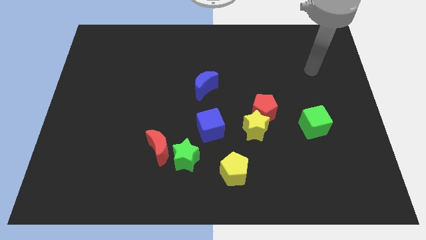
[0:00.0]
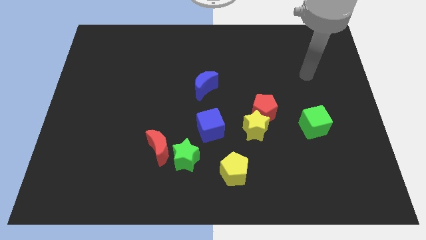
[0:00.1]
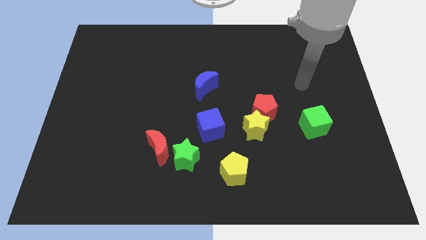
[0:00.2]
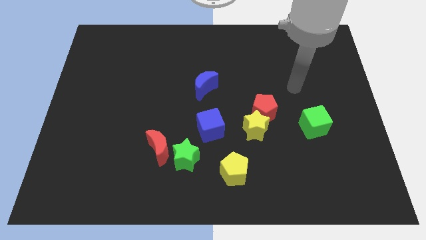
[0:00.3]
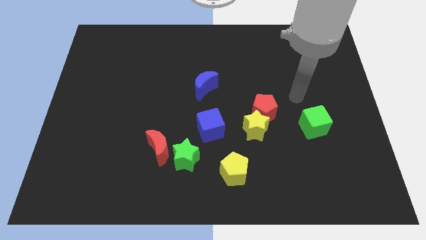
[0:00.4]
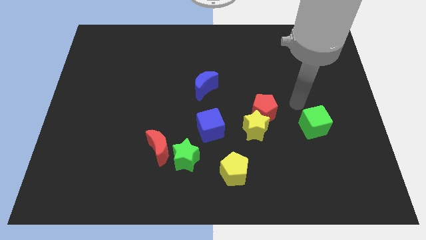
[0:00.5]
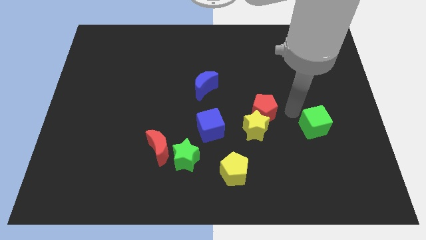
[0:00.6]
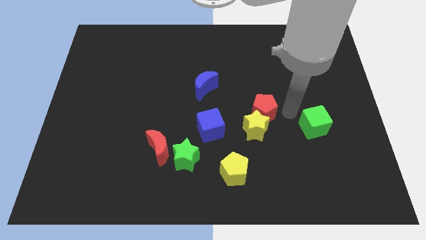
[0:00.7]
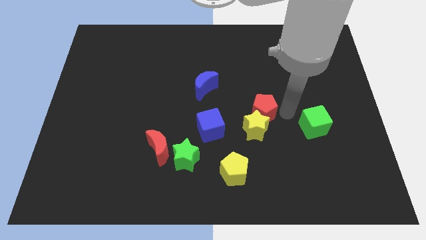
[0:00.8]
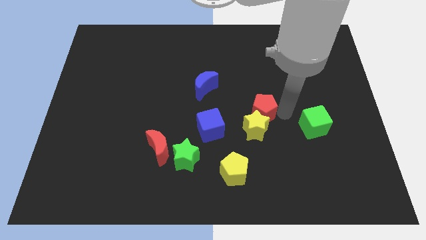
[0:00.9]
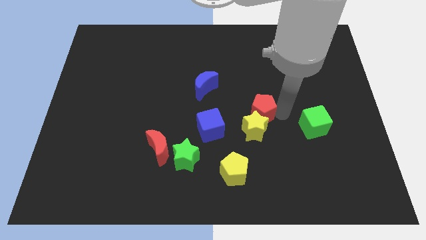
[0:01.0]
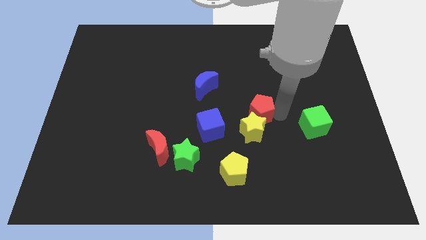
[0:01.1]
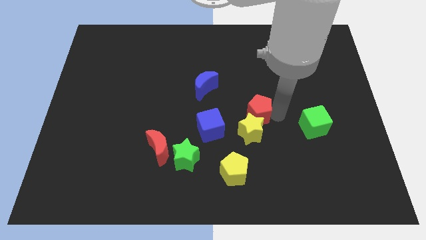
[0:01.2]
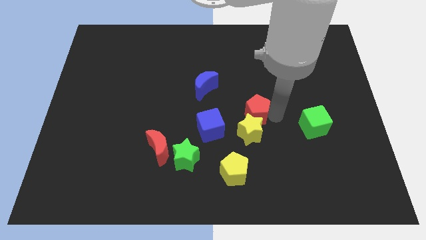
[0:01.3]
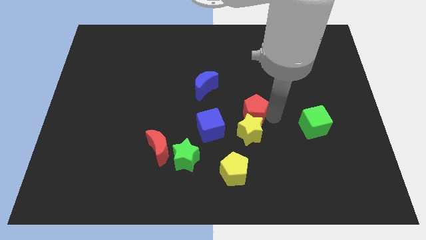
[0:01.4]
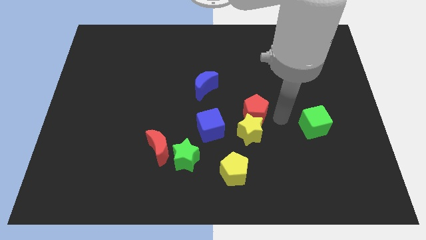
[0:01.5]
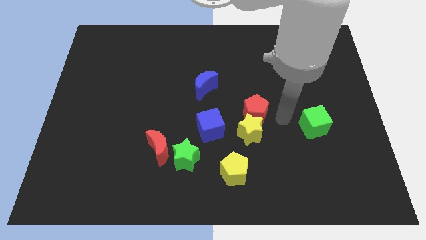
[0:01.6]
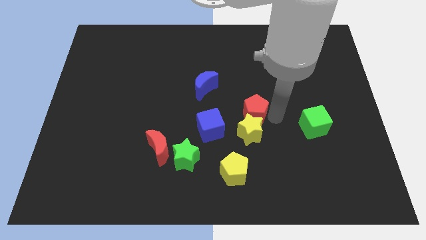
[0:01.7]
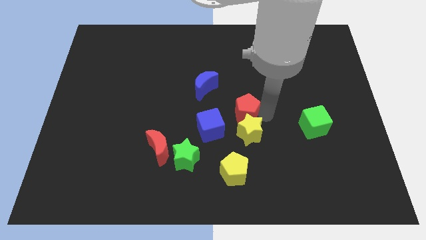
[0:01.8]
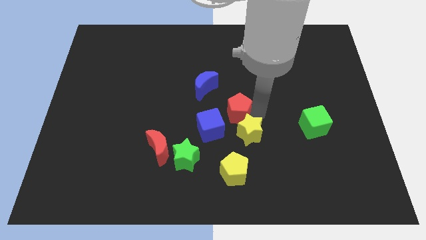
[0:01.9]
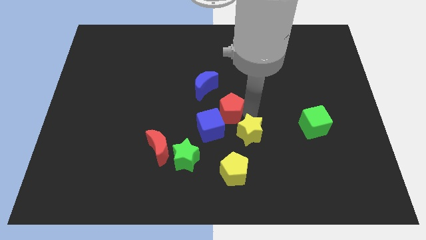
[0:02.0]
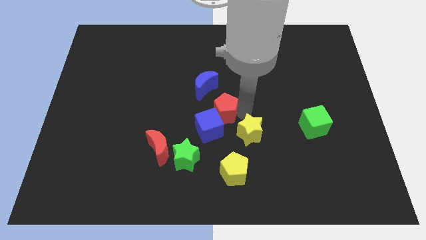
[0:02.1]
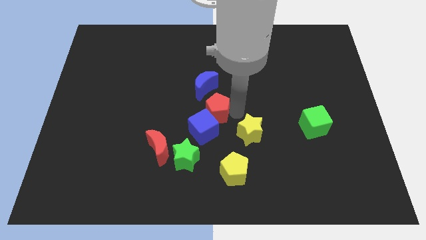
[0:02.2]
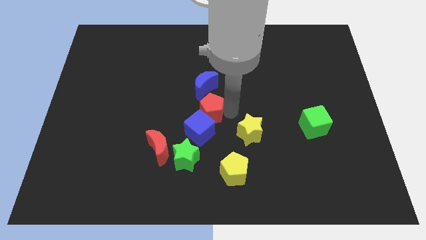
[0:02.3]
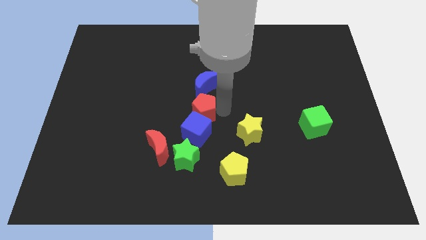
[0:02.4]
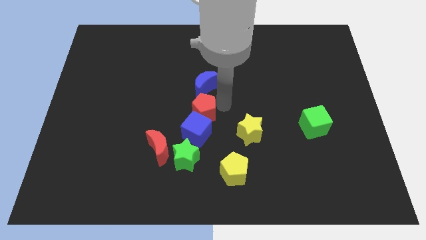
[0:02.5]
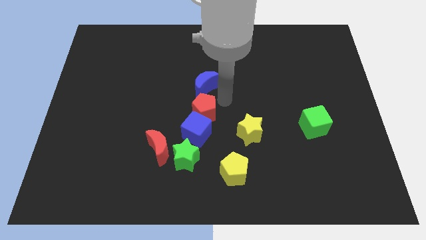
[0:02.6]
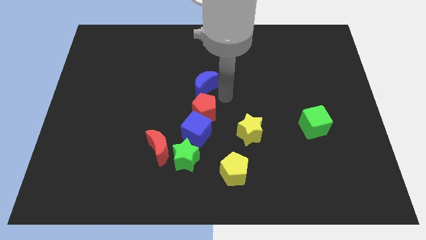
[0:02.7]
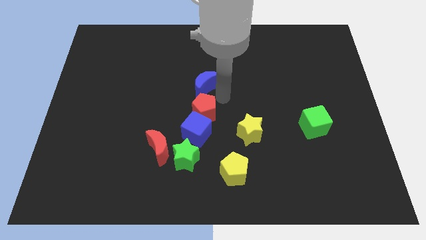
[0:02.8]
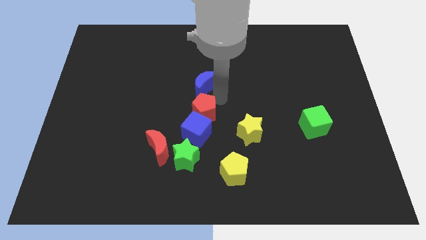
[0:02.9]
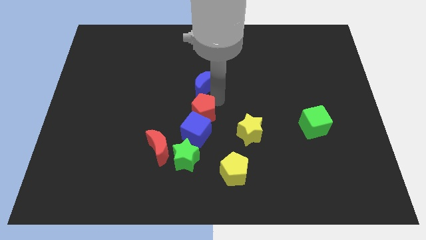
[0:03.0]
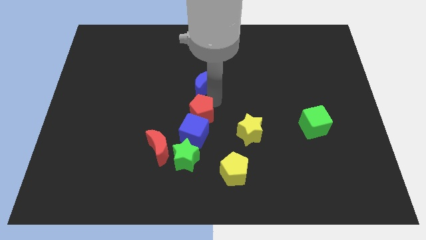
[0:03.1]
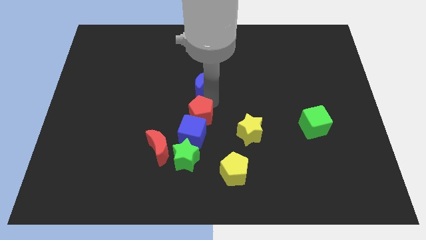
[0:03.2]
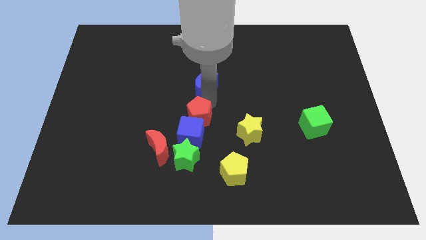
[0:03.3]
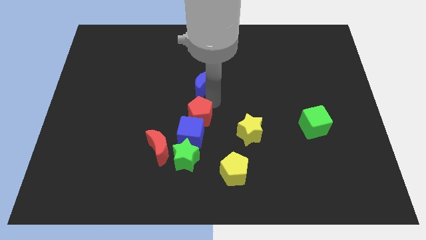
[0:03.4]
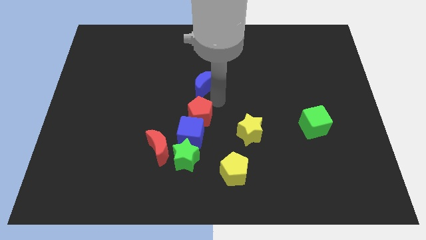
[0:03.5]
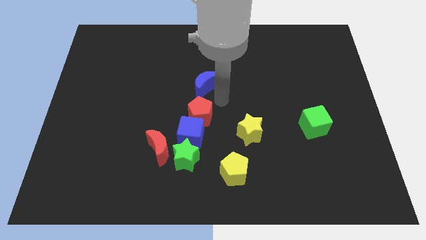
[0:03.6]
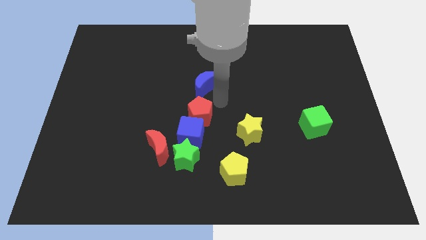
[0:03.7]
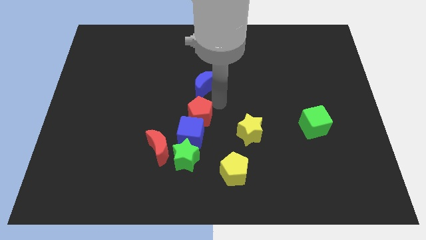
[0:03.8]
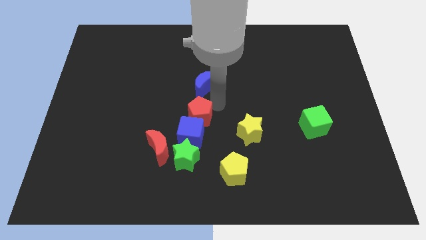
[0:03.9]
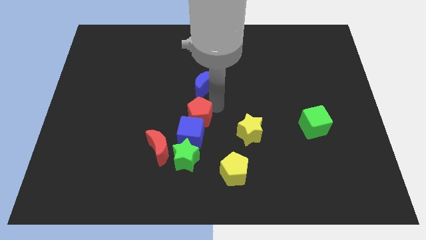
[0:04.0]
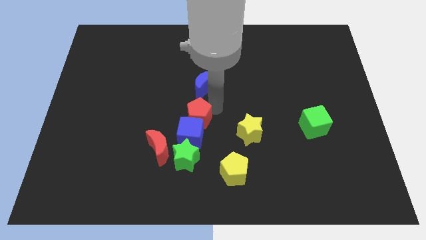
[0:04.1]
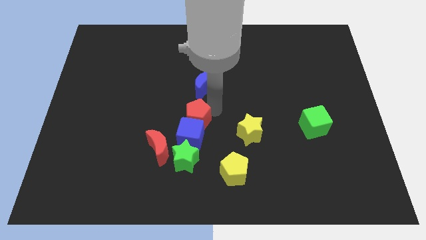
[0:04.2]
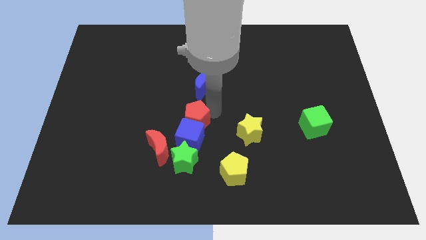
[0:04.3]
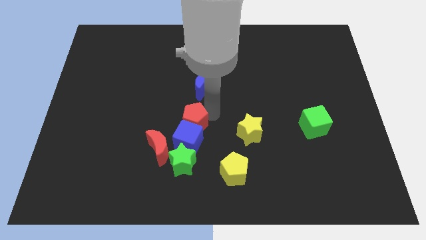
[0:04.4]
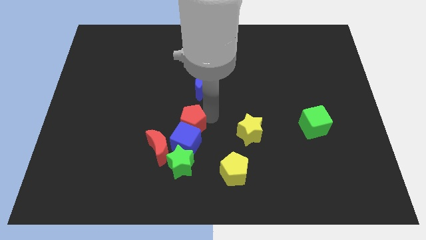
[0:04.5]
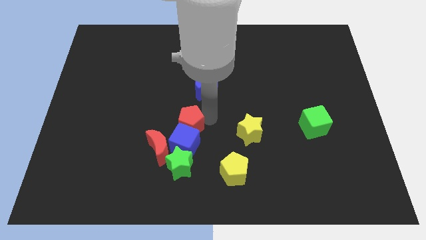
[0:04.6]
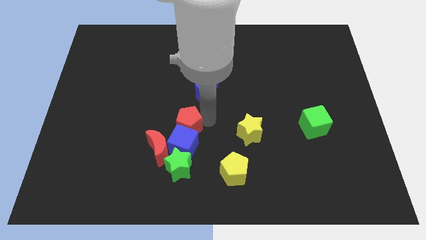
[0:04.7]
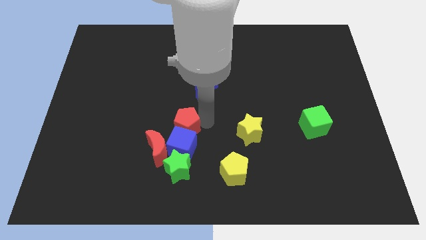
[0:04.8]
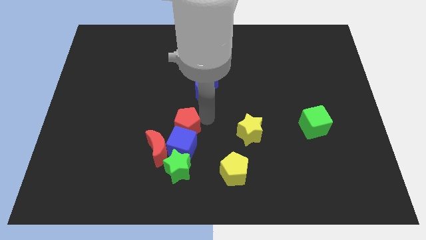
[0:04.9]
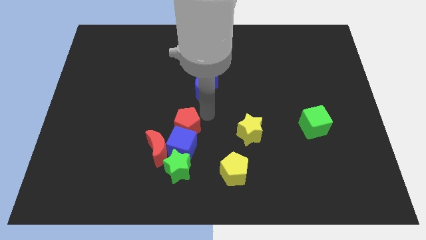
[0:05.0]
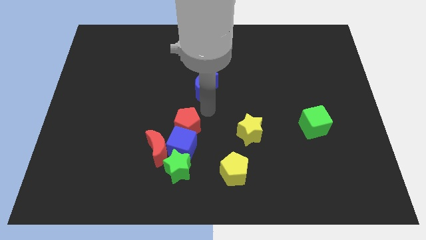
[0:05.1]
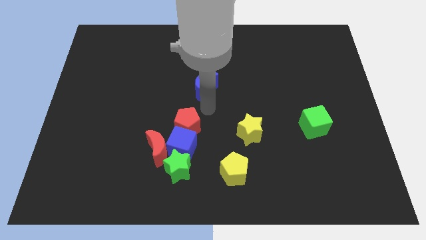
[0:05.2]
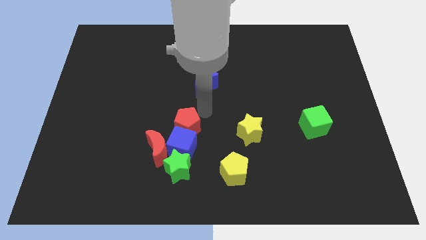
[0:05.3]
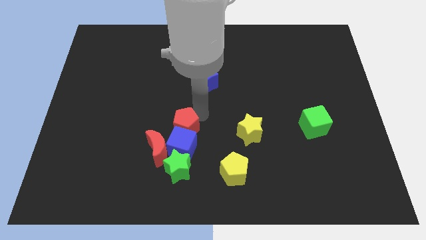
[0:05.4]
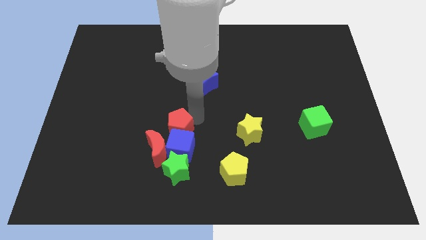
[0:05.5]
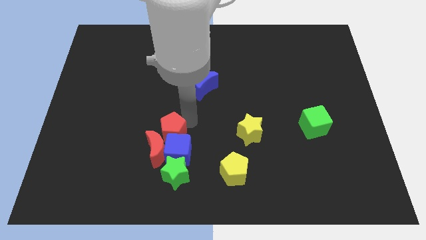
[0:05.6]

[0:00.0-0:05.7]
slide the red pentagon towards the red moon

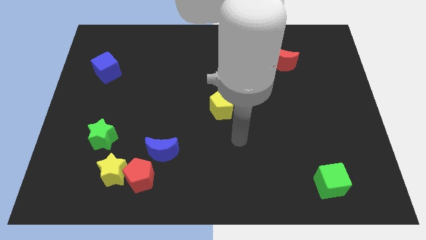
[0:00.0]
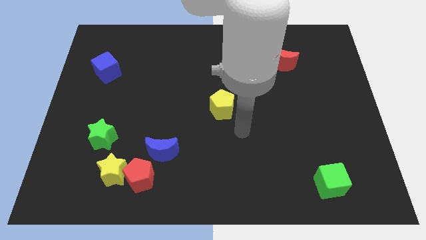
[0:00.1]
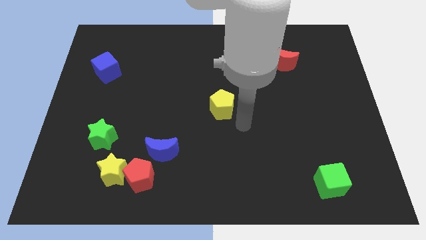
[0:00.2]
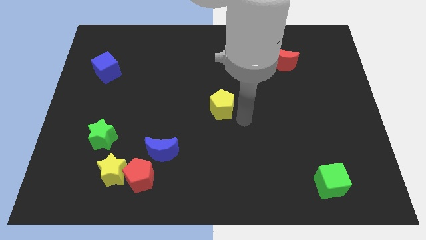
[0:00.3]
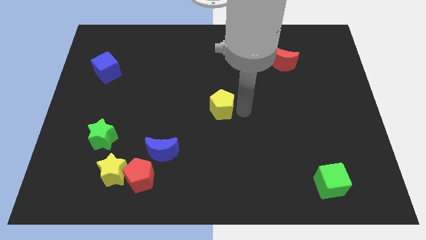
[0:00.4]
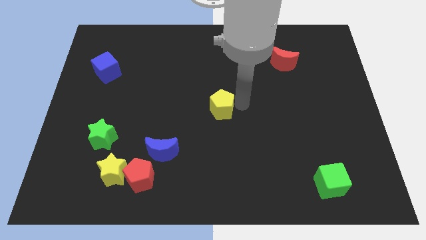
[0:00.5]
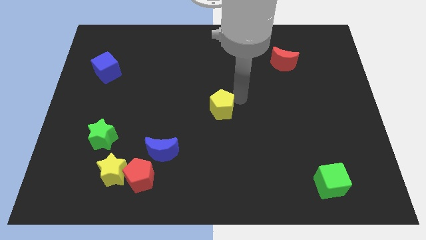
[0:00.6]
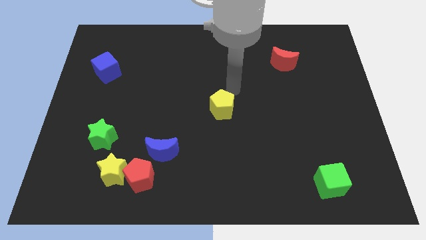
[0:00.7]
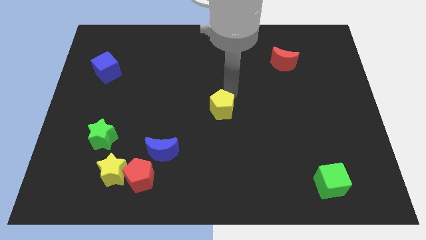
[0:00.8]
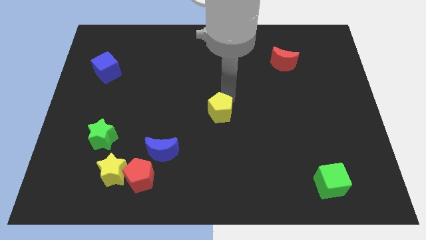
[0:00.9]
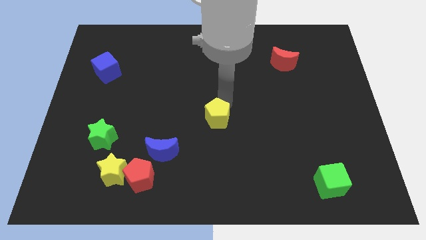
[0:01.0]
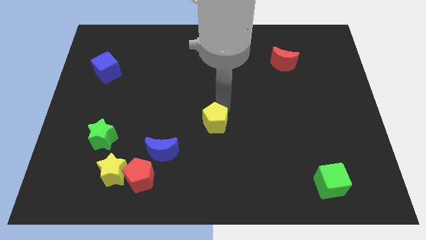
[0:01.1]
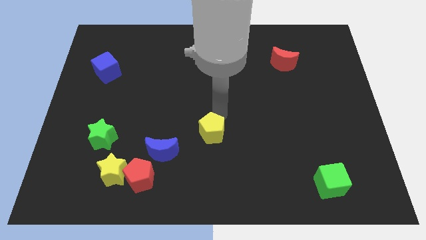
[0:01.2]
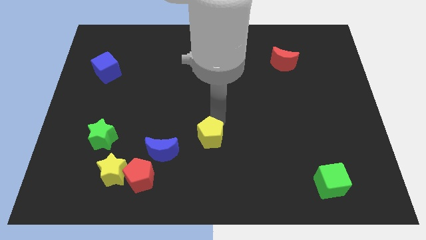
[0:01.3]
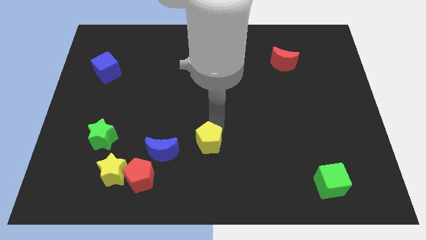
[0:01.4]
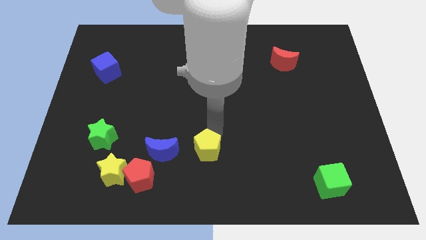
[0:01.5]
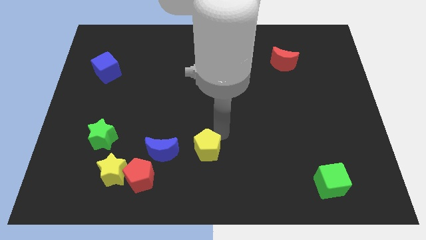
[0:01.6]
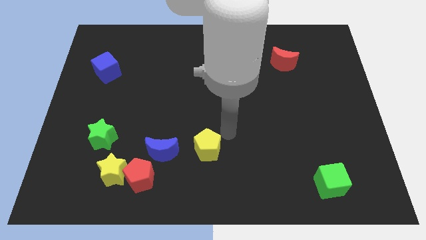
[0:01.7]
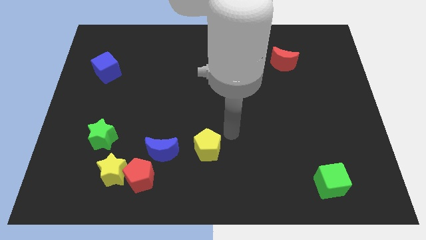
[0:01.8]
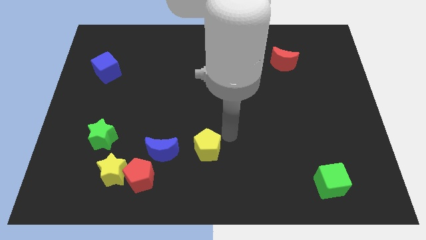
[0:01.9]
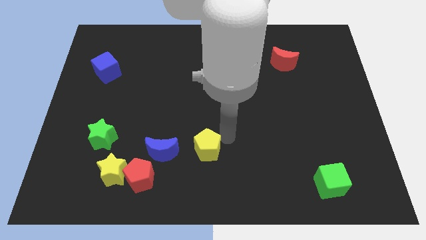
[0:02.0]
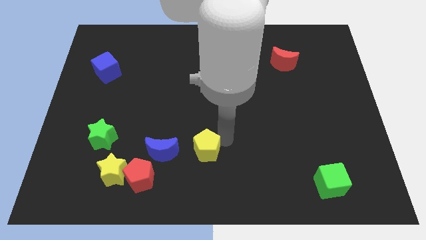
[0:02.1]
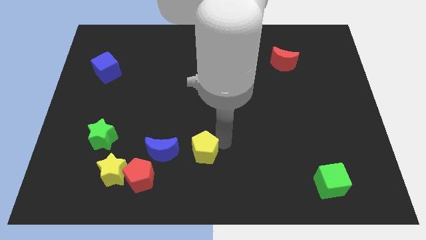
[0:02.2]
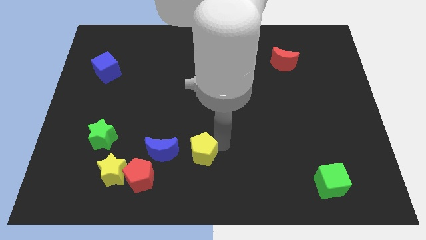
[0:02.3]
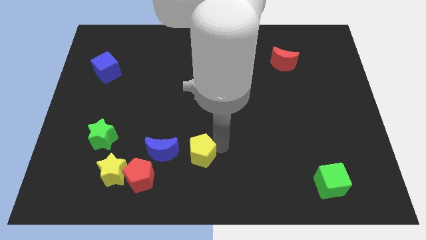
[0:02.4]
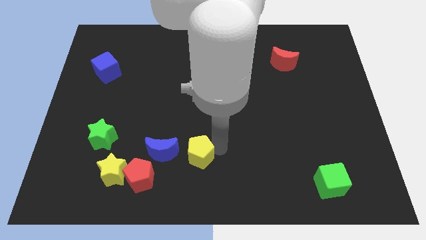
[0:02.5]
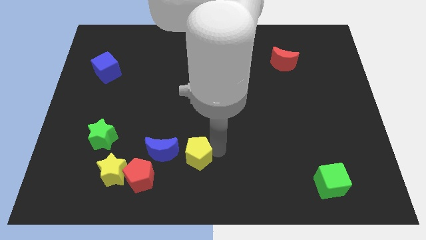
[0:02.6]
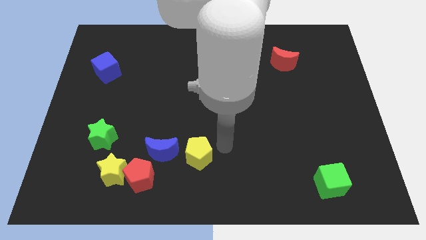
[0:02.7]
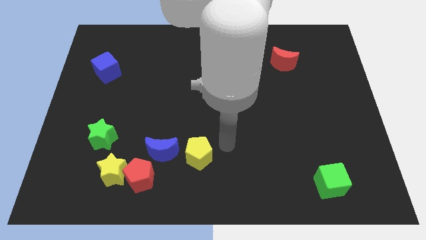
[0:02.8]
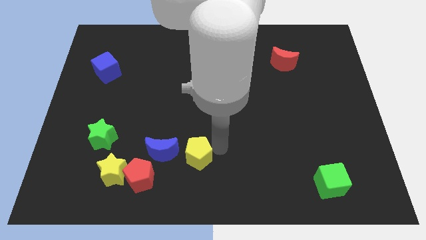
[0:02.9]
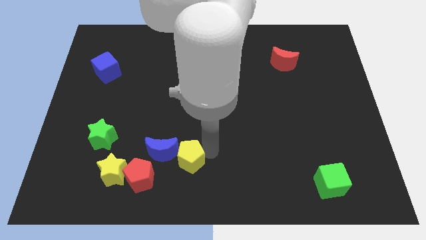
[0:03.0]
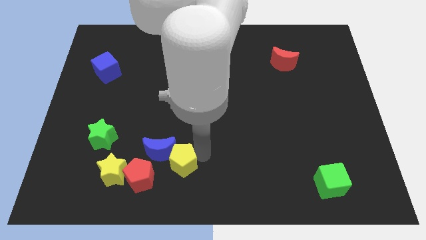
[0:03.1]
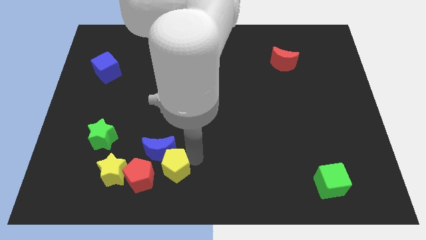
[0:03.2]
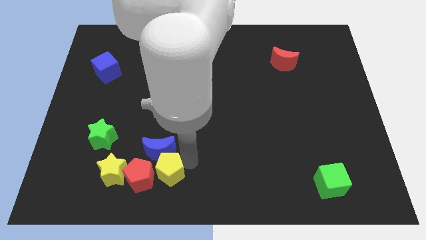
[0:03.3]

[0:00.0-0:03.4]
slide the yellow pentagon towards the red pentagon
